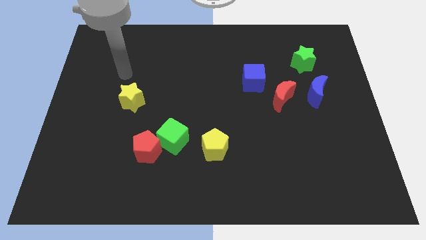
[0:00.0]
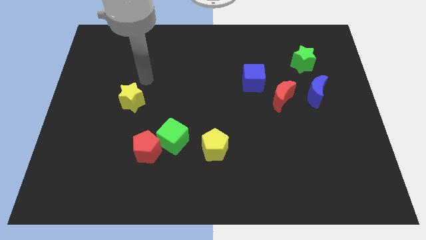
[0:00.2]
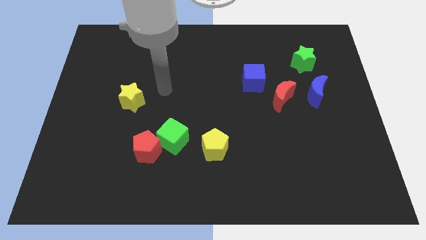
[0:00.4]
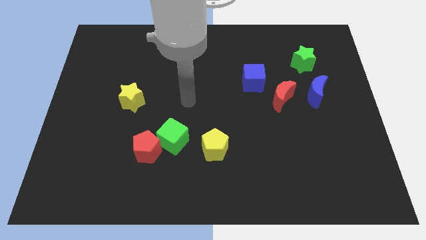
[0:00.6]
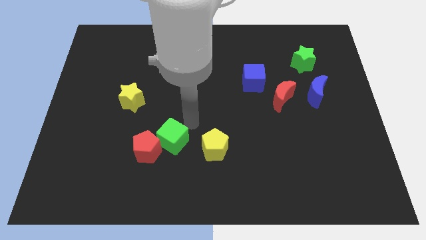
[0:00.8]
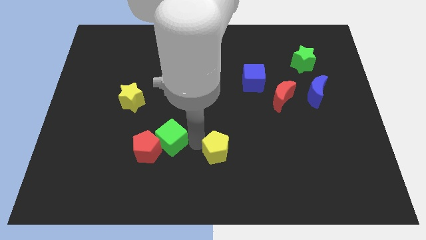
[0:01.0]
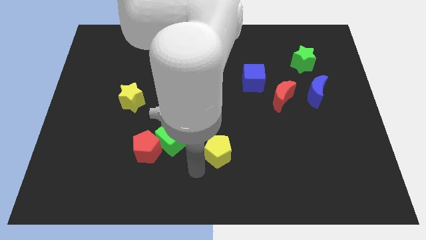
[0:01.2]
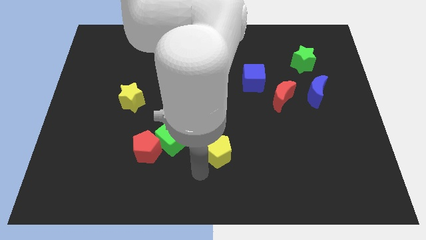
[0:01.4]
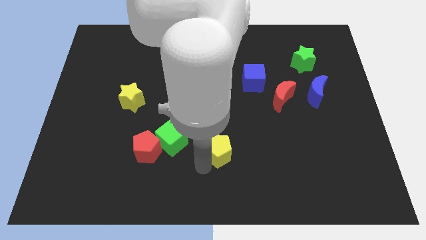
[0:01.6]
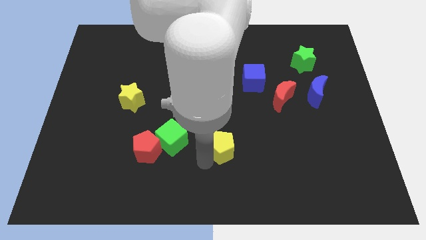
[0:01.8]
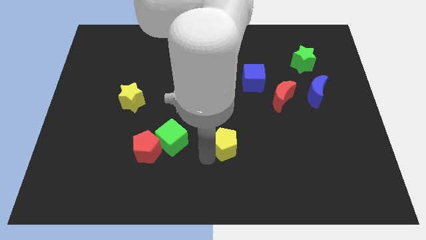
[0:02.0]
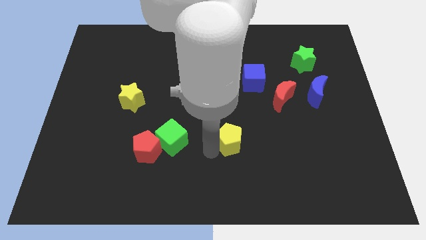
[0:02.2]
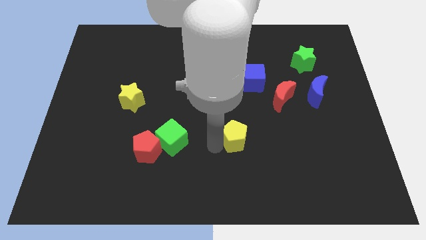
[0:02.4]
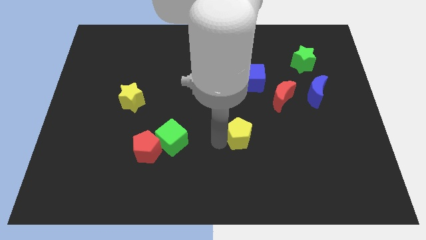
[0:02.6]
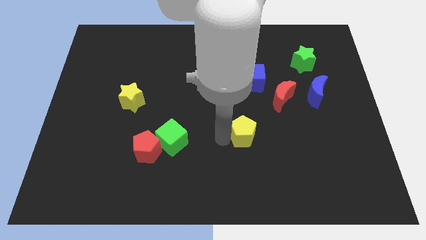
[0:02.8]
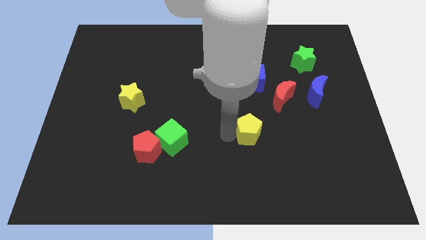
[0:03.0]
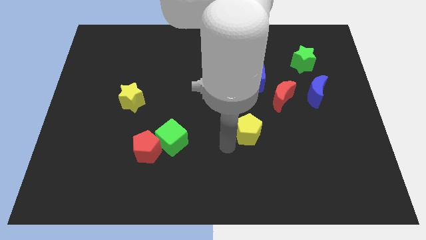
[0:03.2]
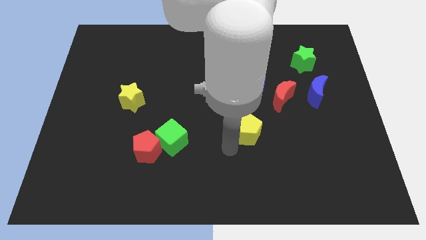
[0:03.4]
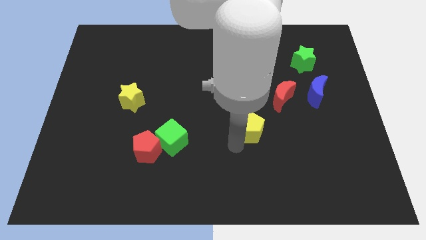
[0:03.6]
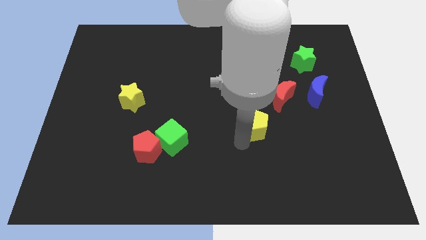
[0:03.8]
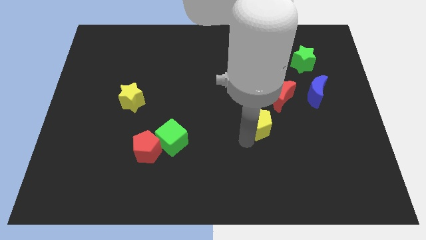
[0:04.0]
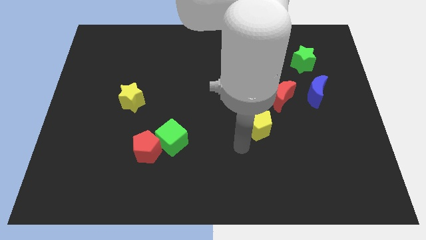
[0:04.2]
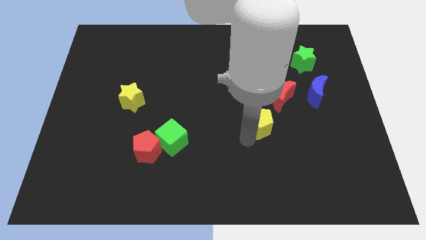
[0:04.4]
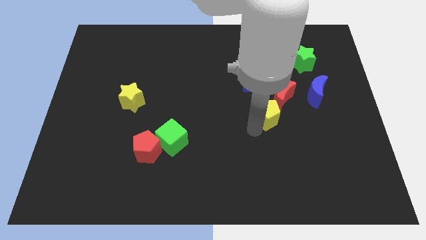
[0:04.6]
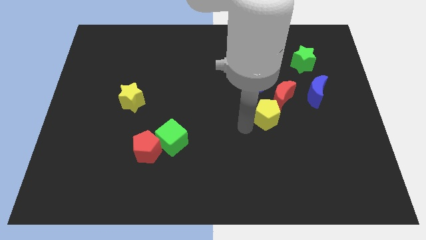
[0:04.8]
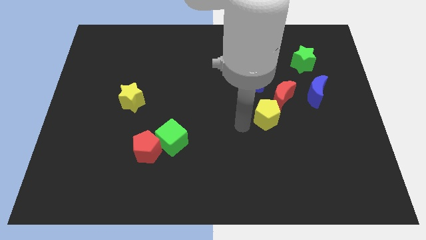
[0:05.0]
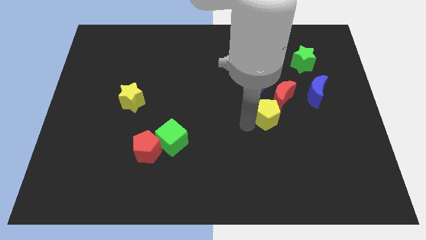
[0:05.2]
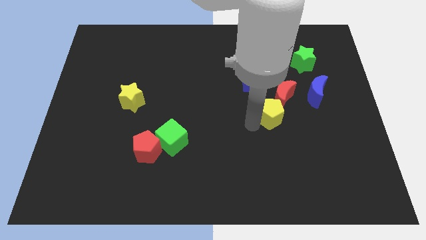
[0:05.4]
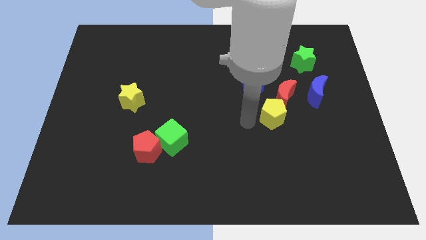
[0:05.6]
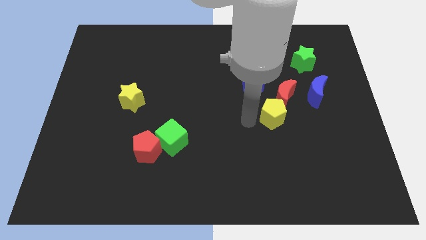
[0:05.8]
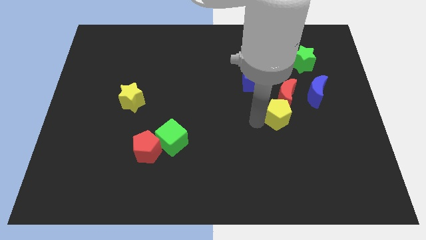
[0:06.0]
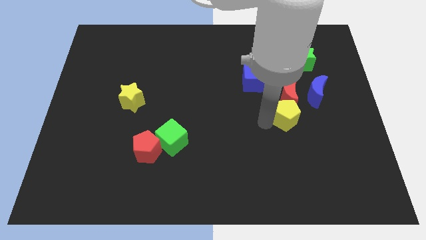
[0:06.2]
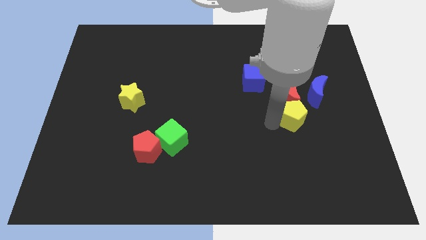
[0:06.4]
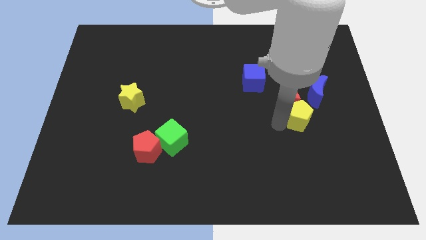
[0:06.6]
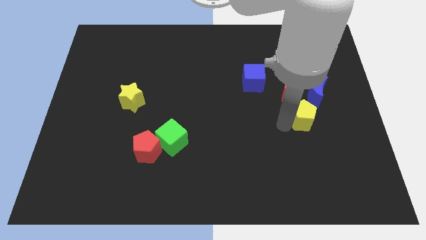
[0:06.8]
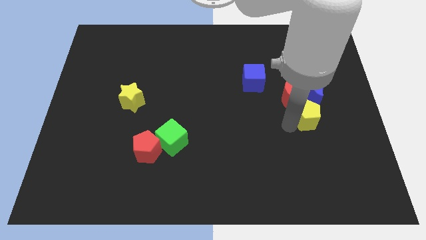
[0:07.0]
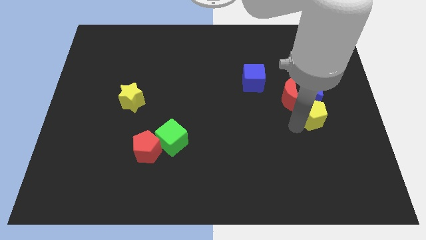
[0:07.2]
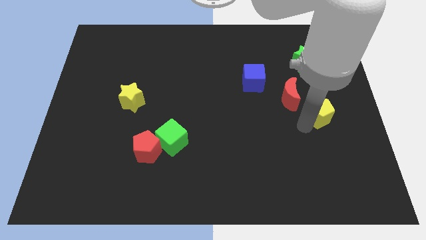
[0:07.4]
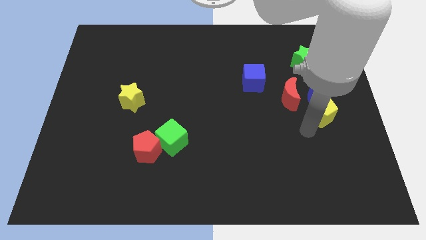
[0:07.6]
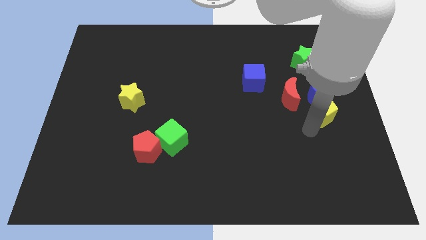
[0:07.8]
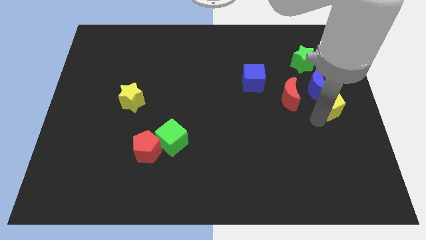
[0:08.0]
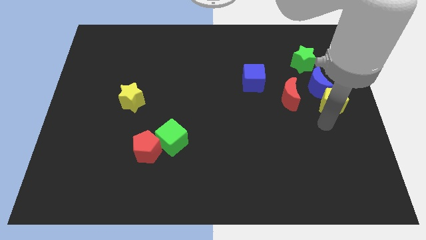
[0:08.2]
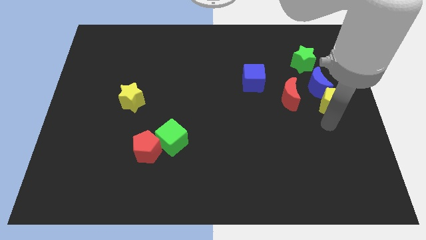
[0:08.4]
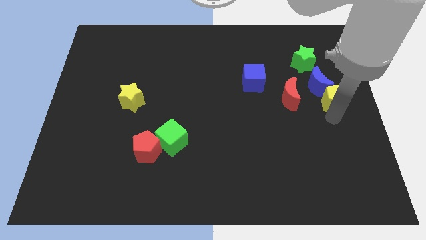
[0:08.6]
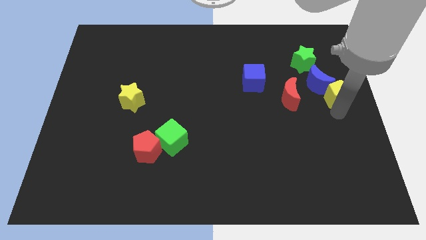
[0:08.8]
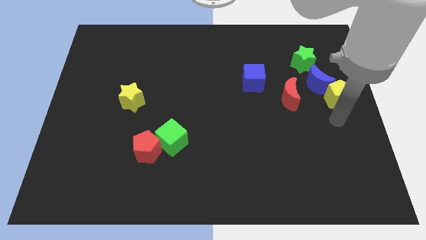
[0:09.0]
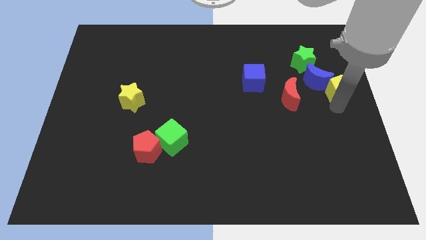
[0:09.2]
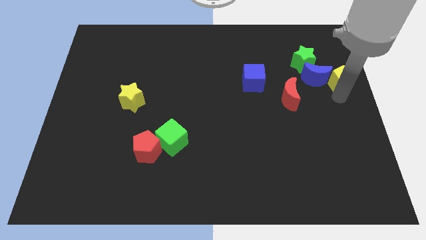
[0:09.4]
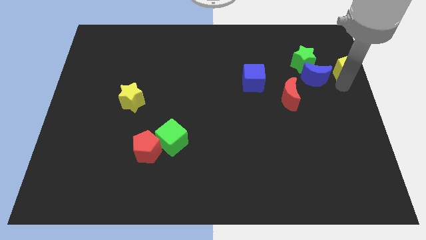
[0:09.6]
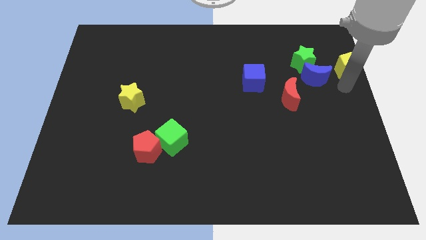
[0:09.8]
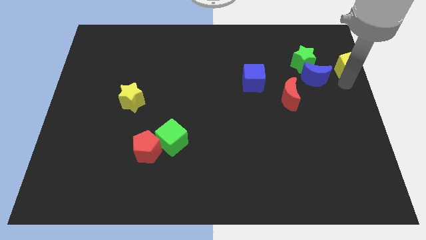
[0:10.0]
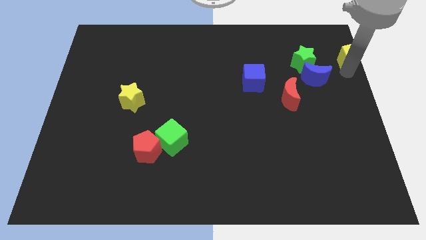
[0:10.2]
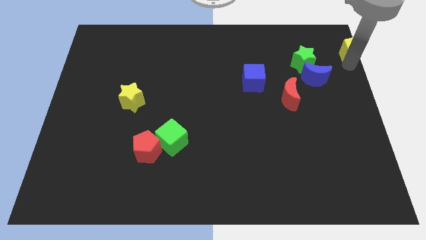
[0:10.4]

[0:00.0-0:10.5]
move the yellow pentagon to the upper right corner

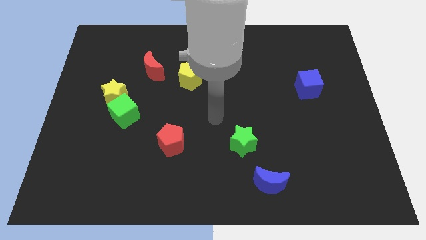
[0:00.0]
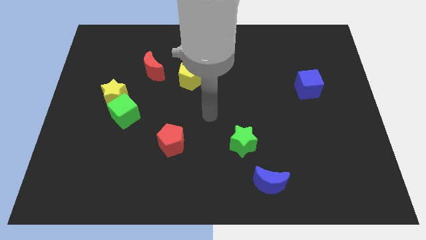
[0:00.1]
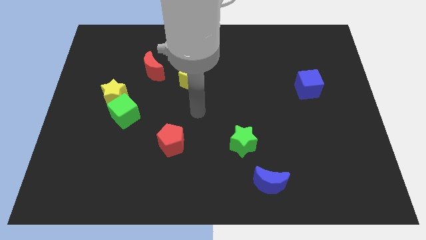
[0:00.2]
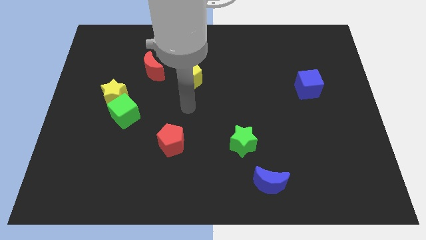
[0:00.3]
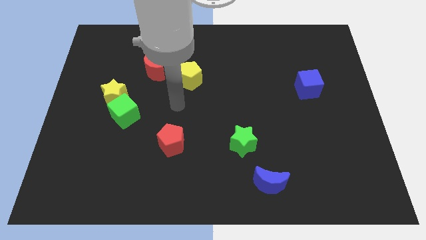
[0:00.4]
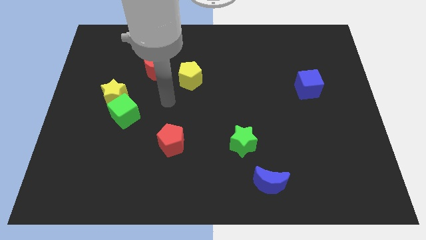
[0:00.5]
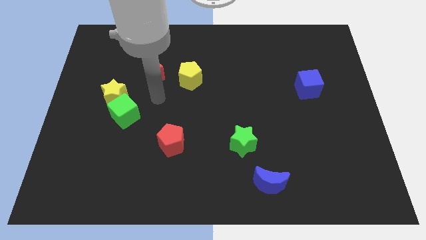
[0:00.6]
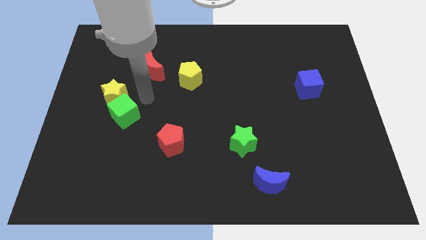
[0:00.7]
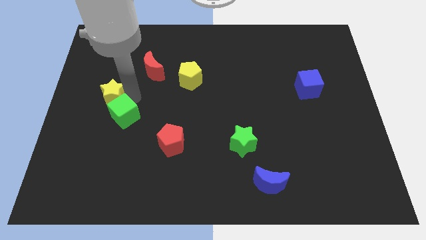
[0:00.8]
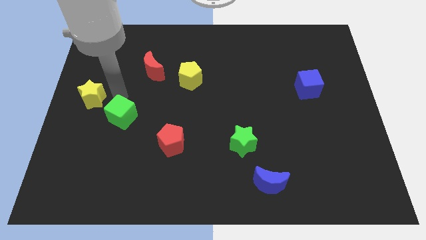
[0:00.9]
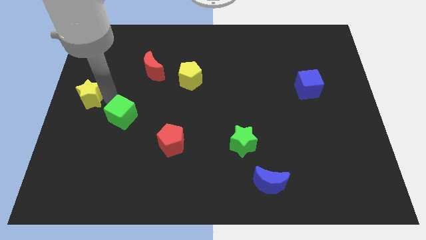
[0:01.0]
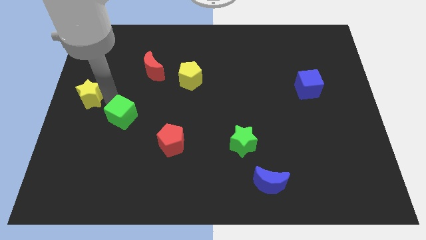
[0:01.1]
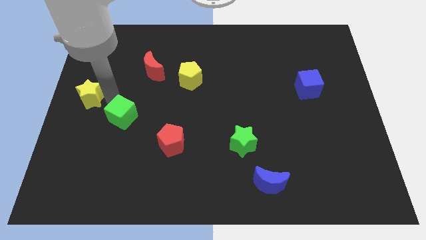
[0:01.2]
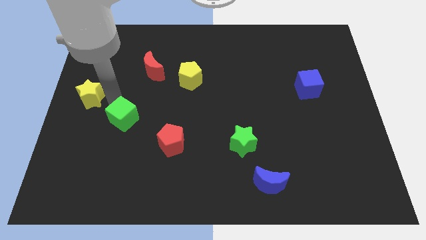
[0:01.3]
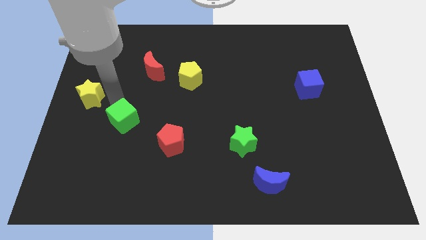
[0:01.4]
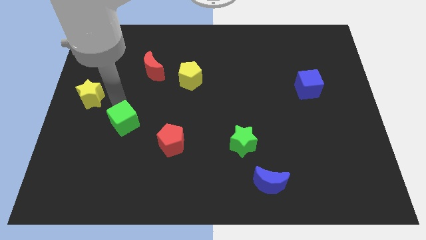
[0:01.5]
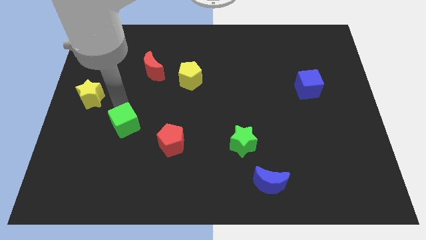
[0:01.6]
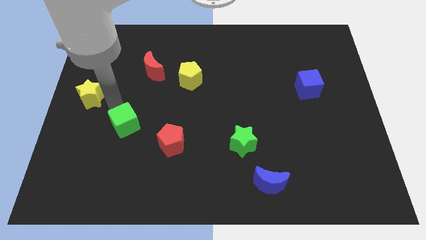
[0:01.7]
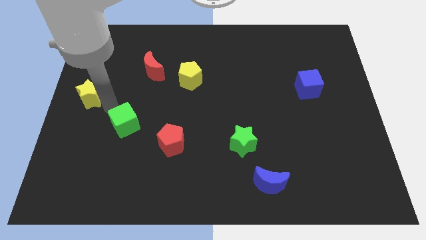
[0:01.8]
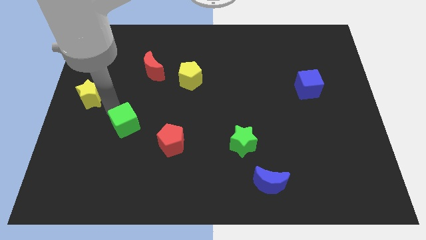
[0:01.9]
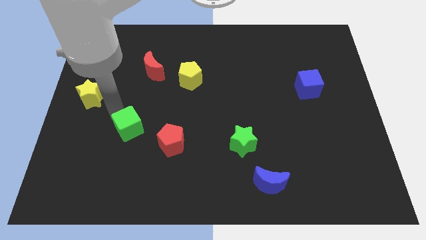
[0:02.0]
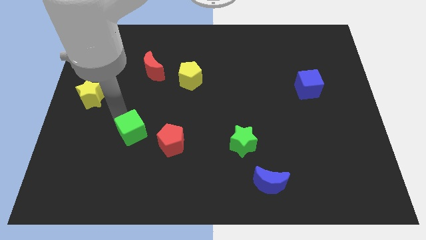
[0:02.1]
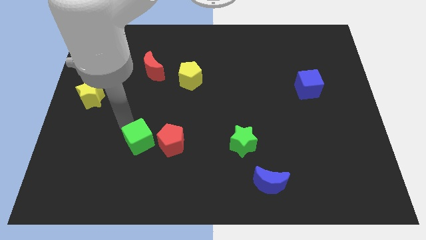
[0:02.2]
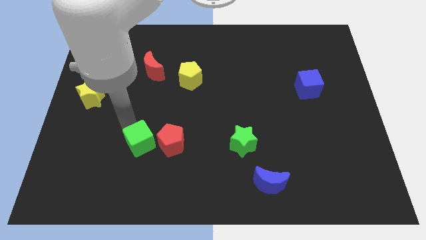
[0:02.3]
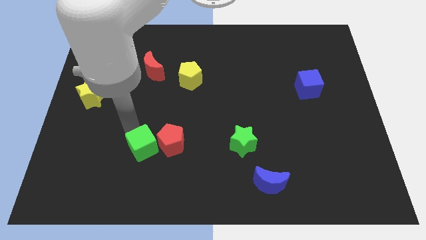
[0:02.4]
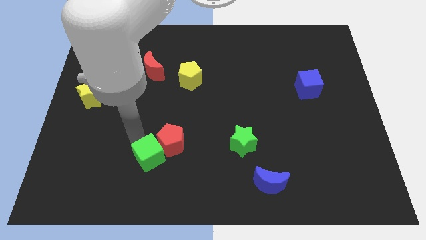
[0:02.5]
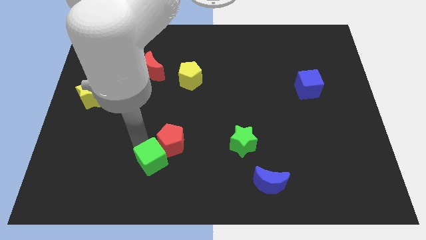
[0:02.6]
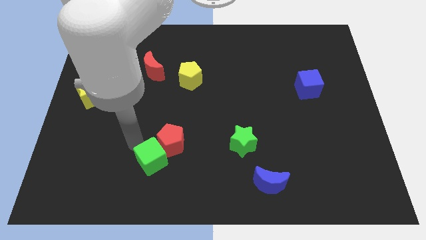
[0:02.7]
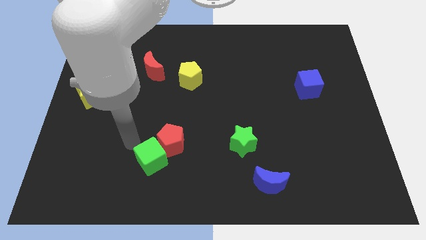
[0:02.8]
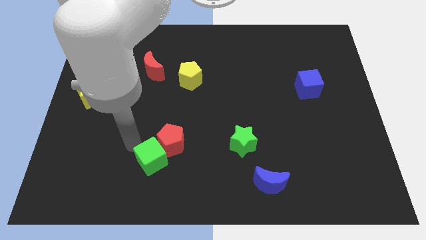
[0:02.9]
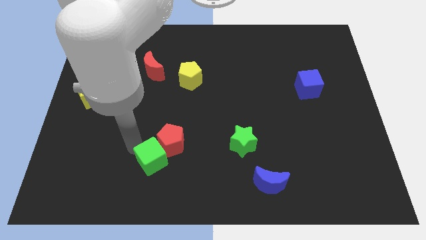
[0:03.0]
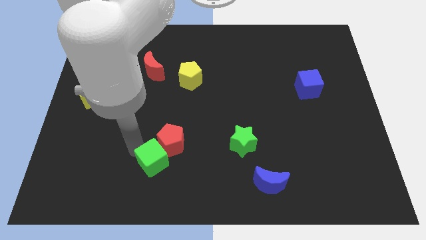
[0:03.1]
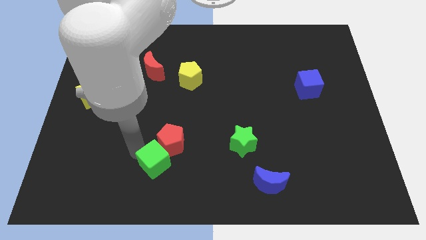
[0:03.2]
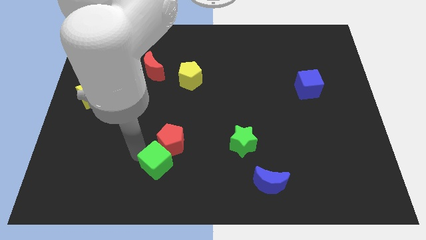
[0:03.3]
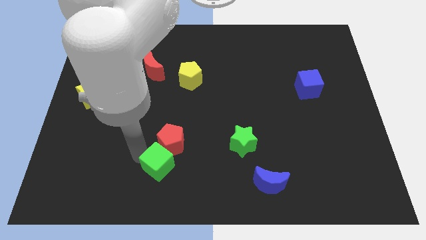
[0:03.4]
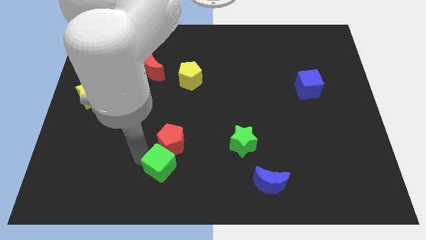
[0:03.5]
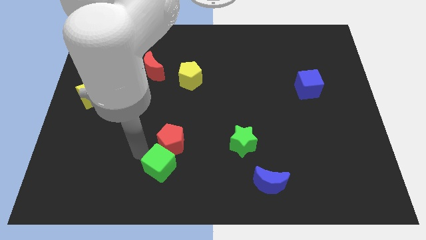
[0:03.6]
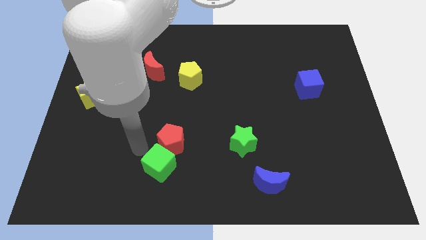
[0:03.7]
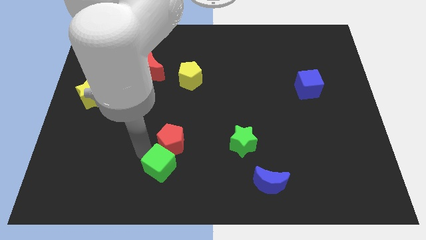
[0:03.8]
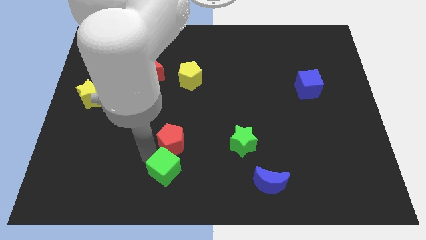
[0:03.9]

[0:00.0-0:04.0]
slide the green cube to the bottom
